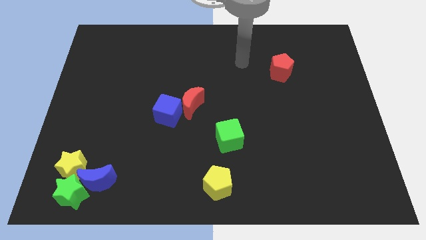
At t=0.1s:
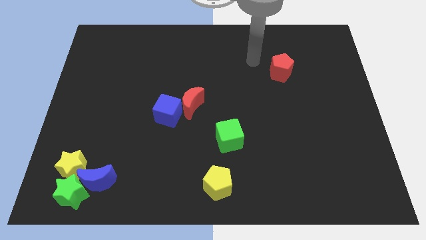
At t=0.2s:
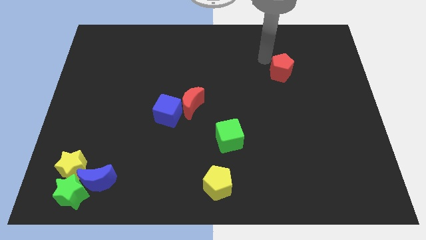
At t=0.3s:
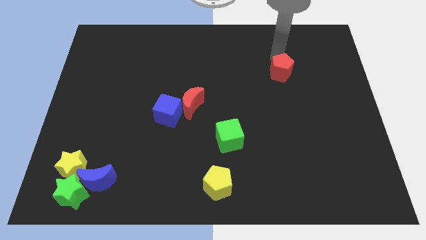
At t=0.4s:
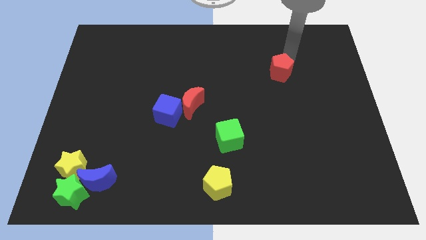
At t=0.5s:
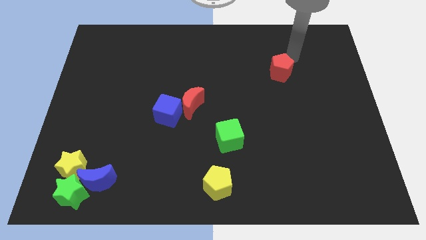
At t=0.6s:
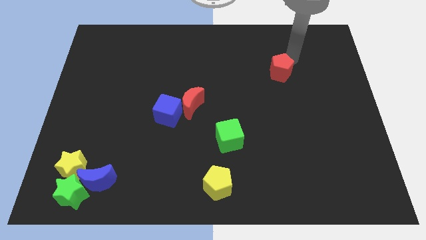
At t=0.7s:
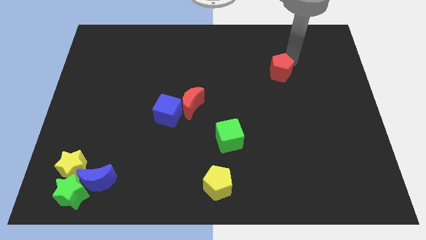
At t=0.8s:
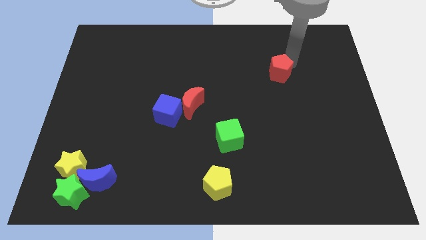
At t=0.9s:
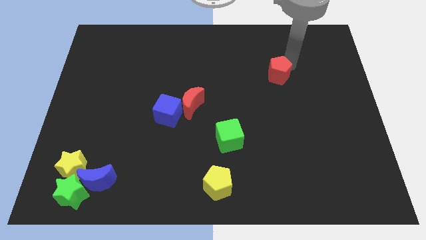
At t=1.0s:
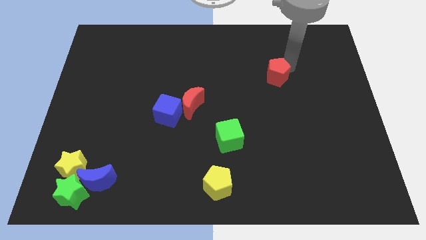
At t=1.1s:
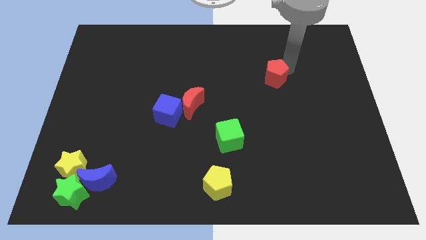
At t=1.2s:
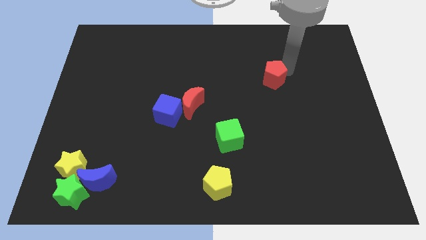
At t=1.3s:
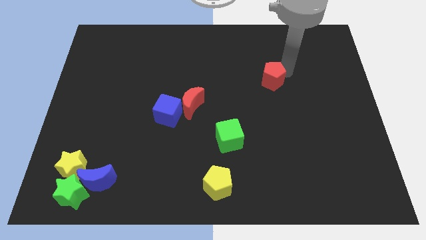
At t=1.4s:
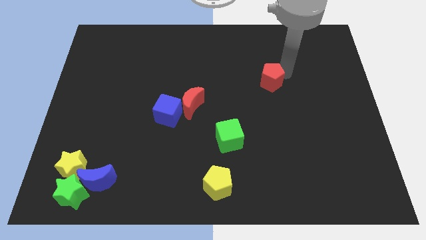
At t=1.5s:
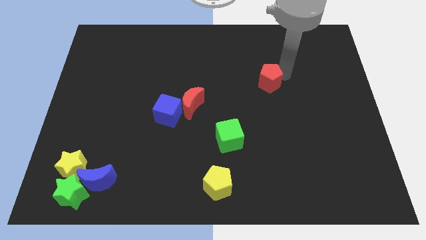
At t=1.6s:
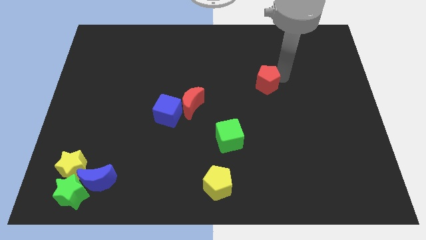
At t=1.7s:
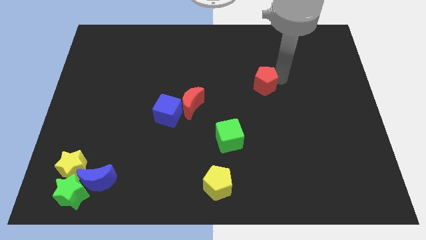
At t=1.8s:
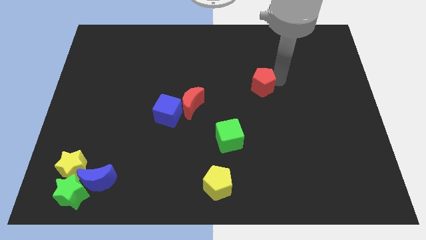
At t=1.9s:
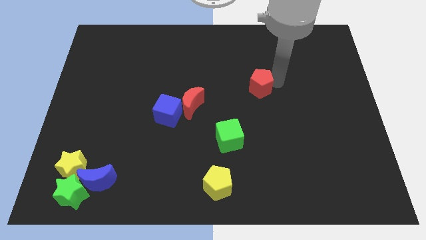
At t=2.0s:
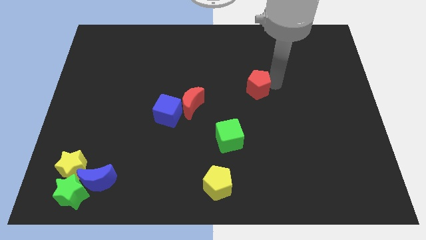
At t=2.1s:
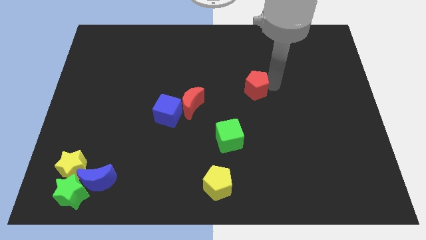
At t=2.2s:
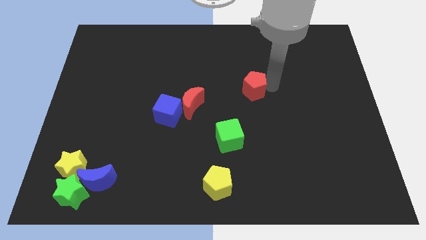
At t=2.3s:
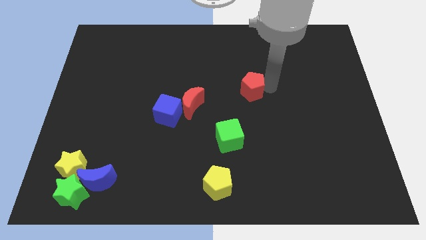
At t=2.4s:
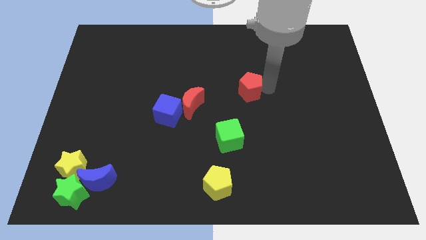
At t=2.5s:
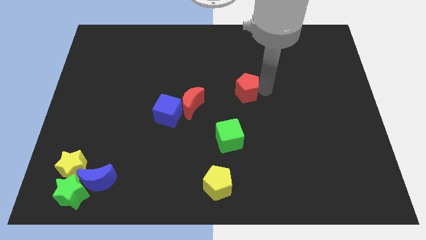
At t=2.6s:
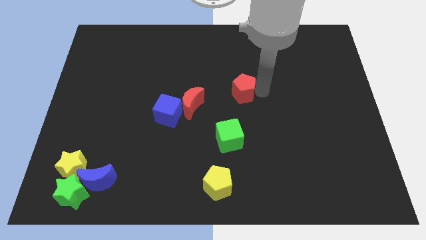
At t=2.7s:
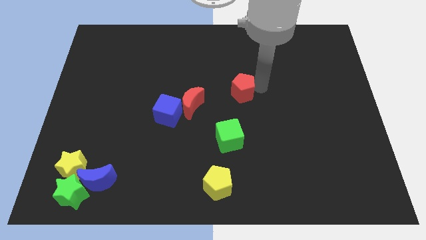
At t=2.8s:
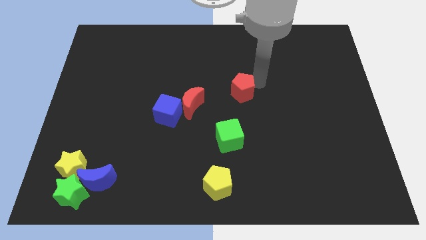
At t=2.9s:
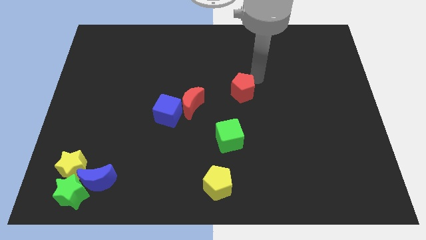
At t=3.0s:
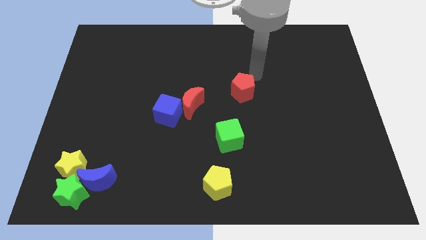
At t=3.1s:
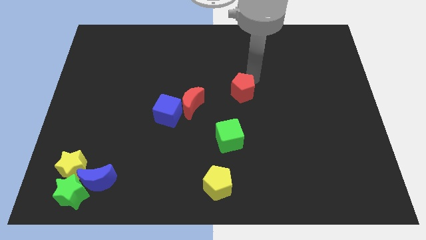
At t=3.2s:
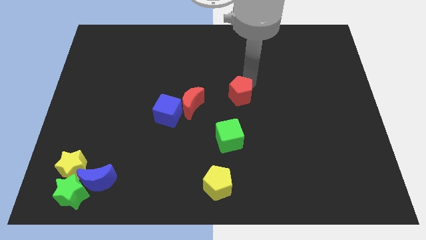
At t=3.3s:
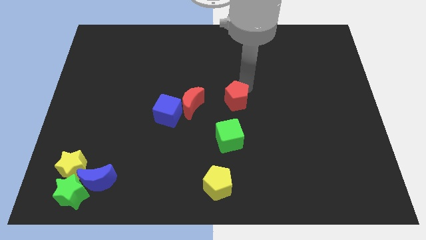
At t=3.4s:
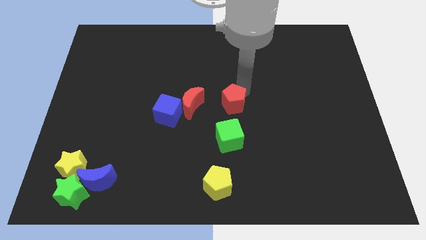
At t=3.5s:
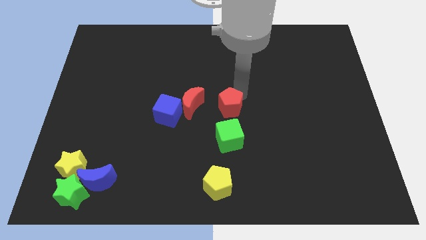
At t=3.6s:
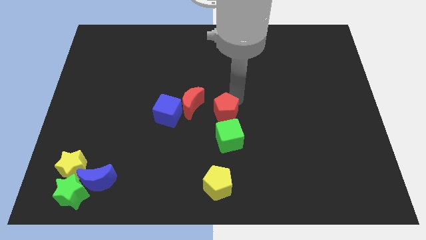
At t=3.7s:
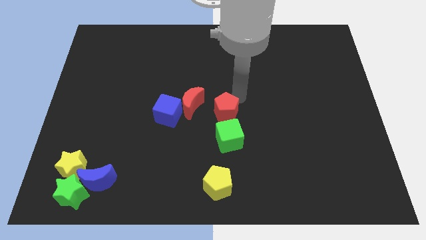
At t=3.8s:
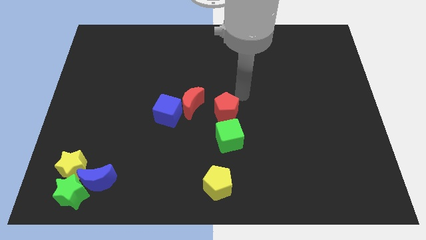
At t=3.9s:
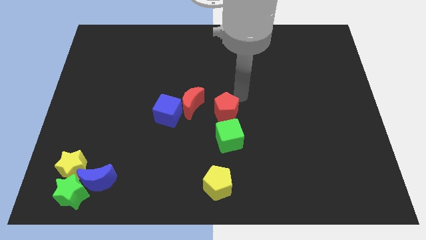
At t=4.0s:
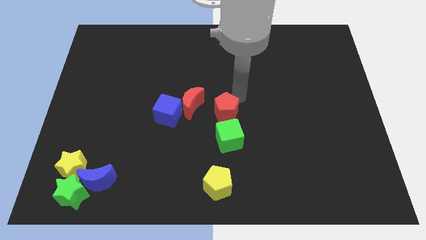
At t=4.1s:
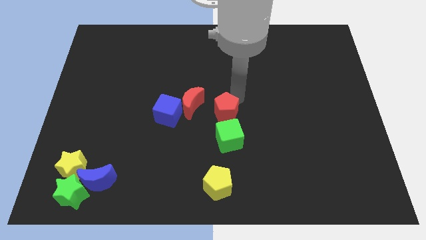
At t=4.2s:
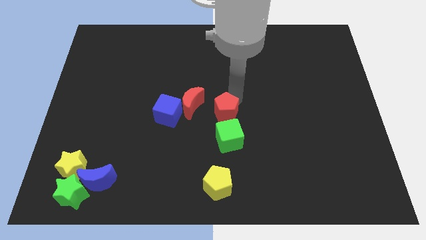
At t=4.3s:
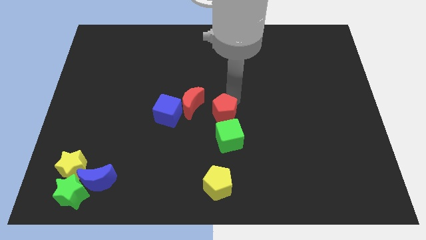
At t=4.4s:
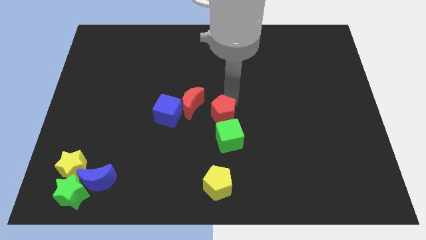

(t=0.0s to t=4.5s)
slide the red pentagon diagonally down and left

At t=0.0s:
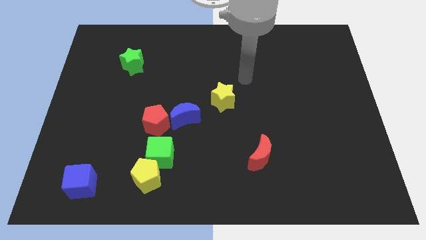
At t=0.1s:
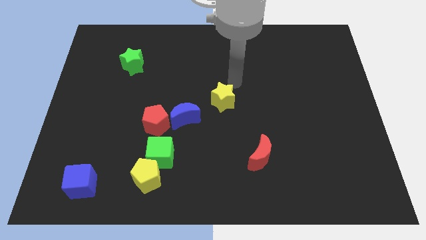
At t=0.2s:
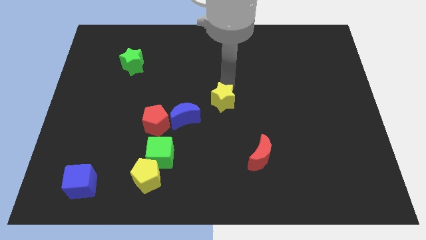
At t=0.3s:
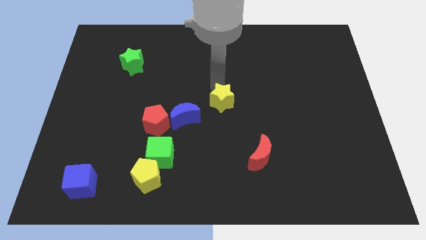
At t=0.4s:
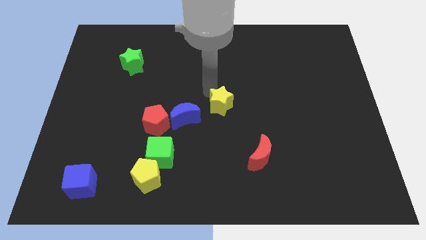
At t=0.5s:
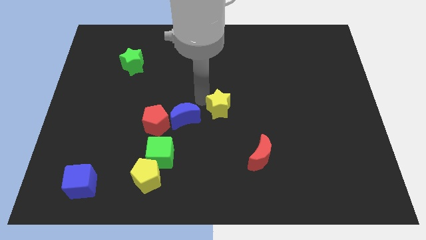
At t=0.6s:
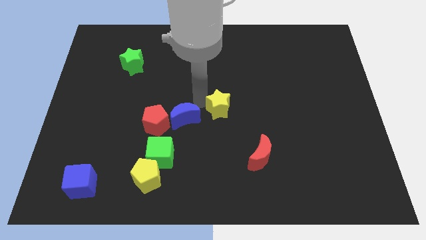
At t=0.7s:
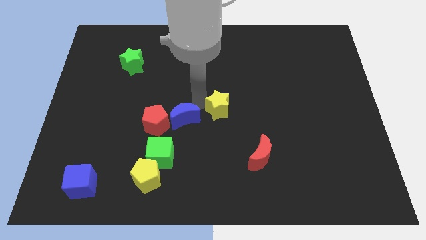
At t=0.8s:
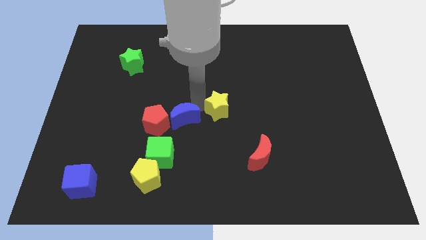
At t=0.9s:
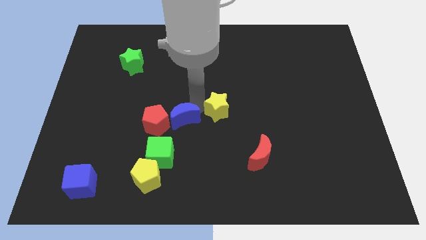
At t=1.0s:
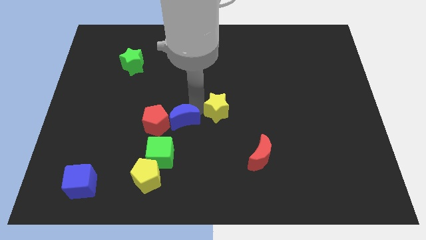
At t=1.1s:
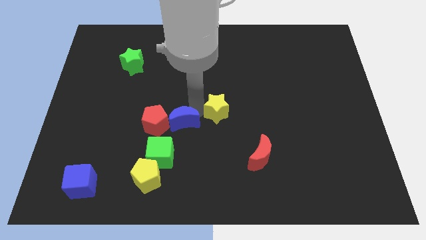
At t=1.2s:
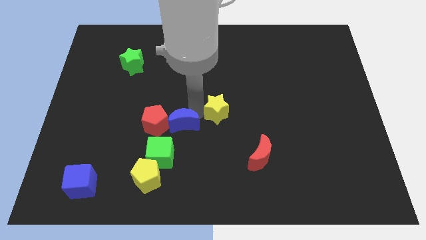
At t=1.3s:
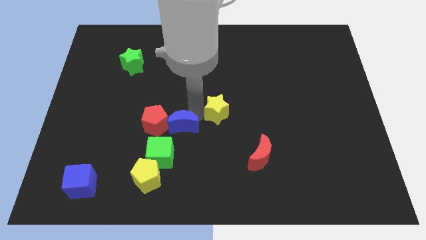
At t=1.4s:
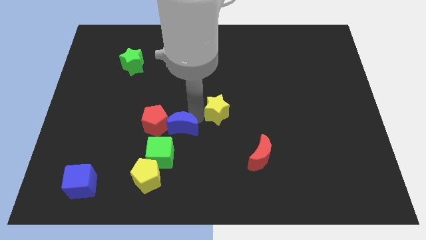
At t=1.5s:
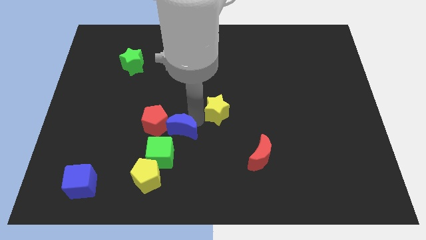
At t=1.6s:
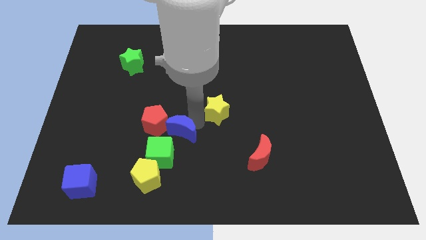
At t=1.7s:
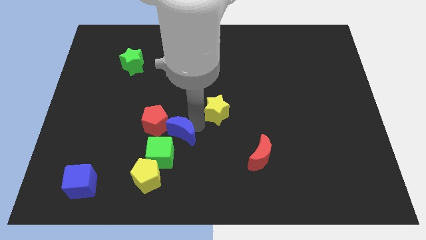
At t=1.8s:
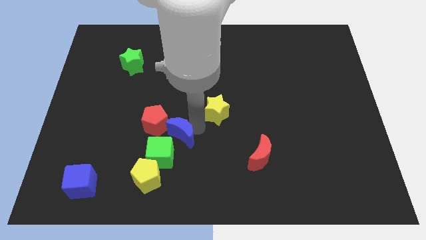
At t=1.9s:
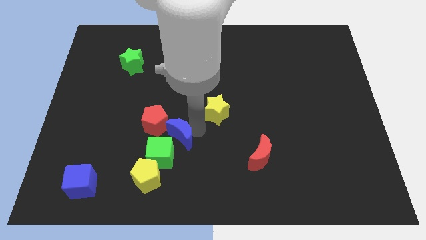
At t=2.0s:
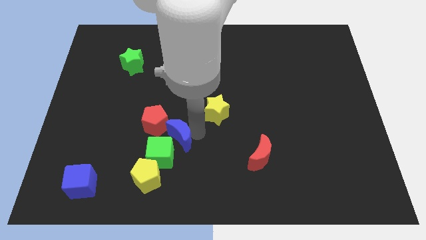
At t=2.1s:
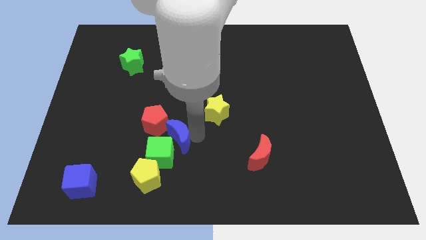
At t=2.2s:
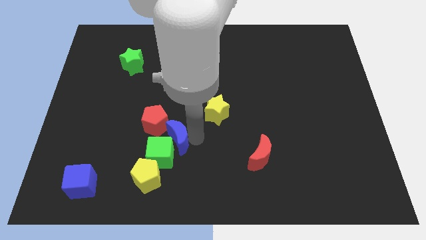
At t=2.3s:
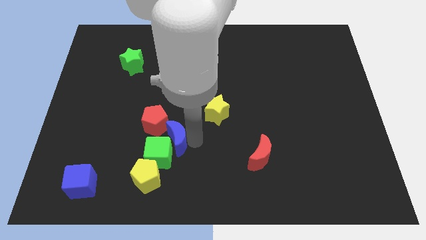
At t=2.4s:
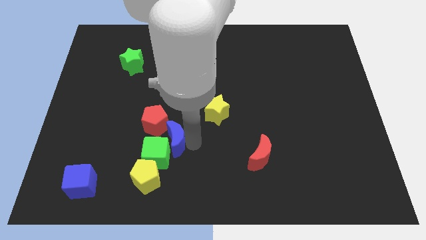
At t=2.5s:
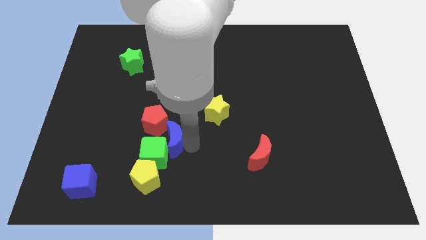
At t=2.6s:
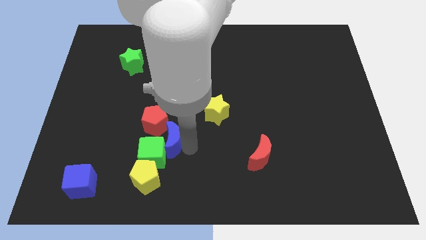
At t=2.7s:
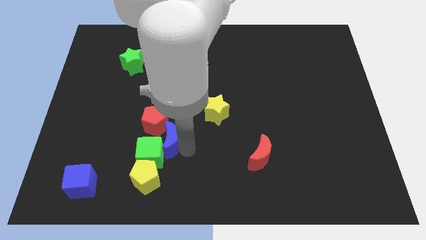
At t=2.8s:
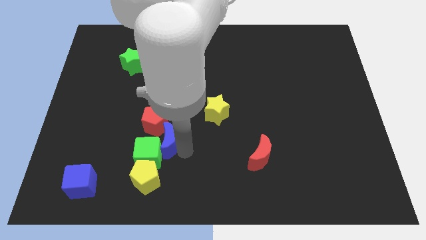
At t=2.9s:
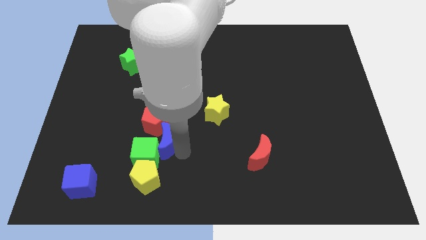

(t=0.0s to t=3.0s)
move the blue moon a bit down and then left

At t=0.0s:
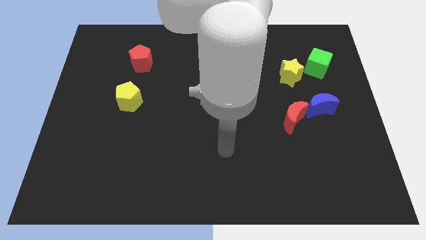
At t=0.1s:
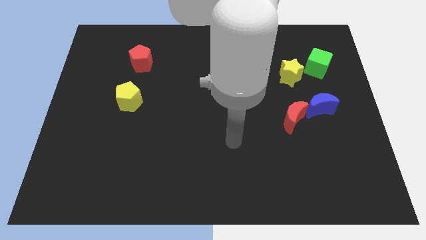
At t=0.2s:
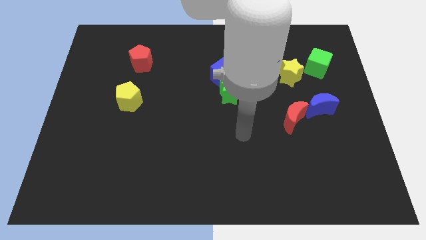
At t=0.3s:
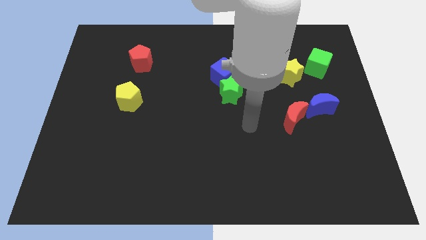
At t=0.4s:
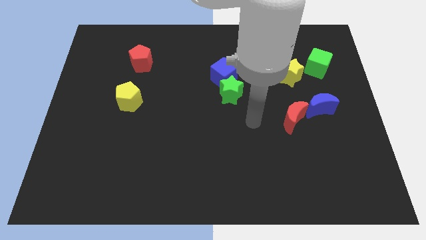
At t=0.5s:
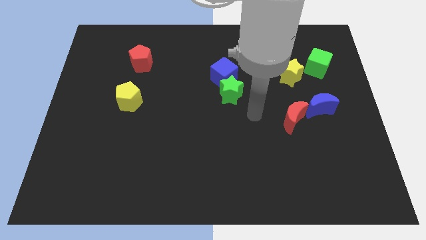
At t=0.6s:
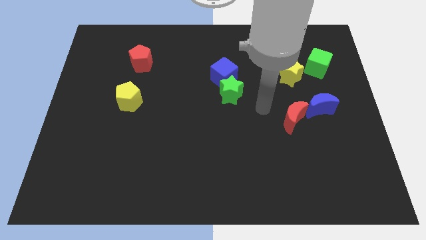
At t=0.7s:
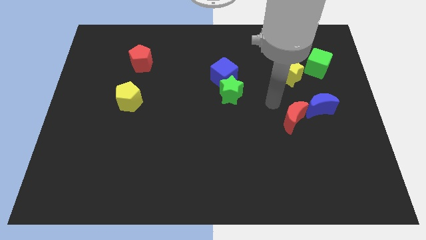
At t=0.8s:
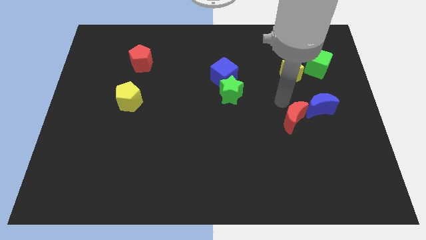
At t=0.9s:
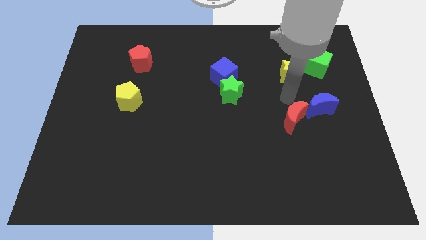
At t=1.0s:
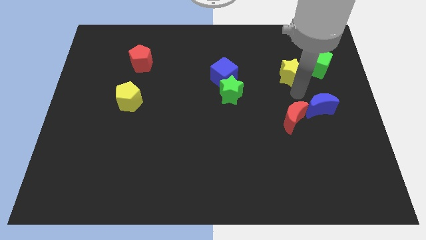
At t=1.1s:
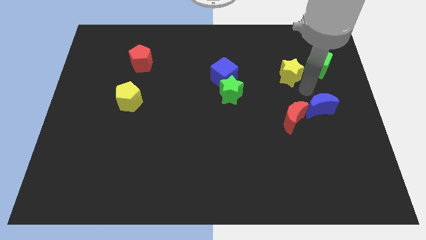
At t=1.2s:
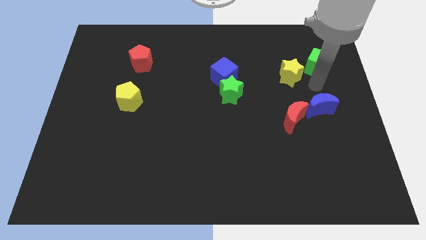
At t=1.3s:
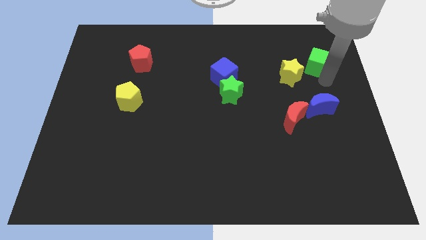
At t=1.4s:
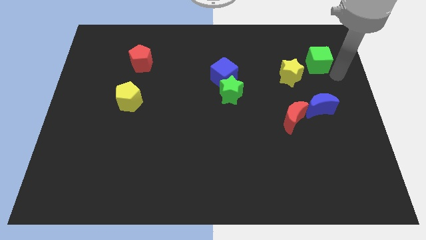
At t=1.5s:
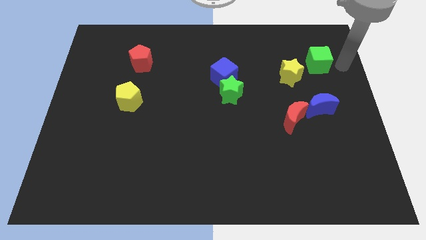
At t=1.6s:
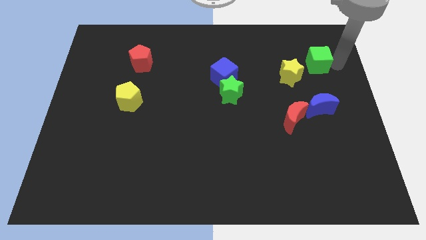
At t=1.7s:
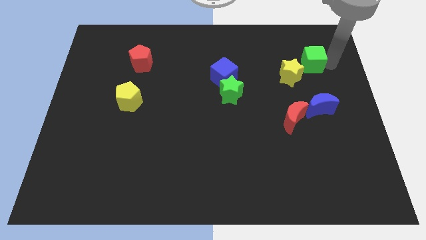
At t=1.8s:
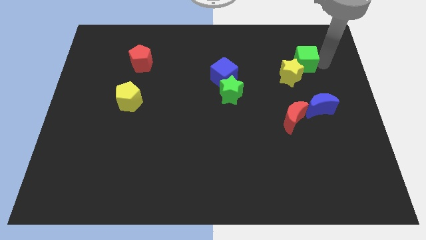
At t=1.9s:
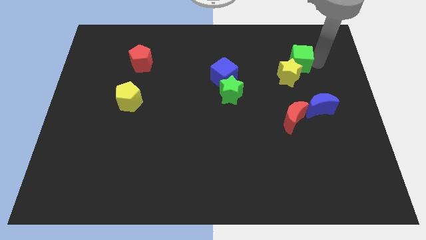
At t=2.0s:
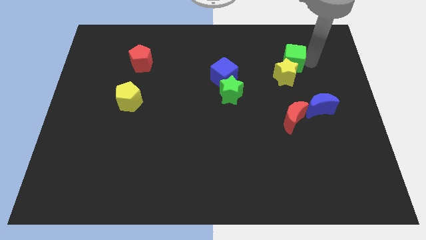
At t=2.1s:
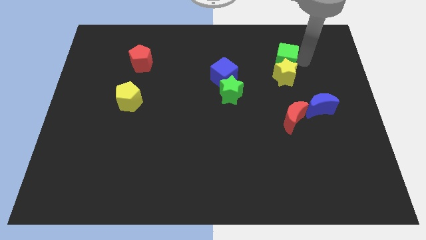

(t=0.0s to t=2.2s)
slightly move the green cube left
